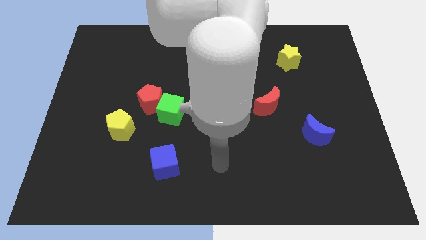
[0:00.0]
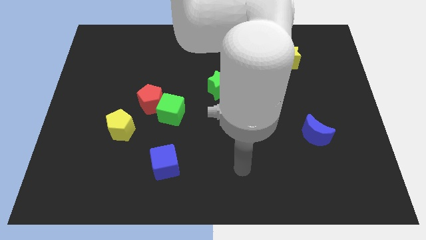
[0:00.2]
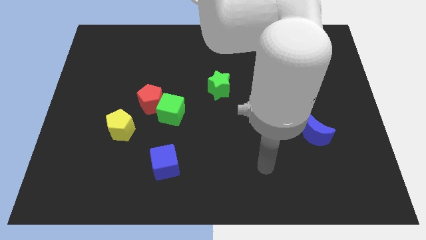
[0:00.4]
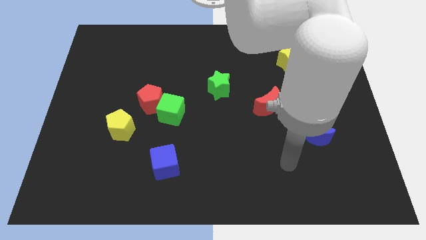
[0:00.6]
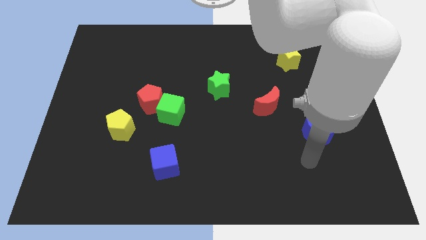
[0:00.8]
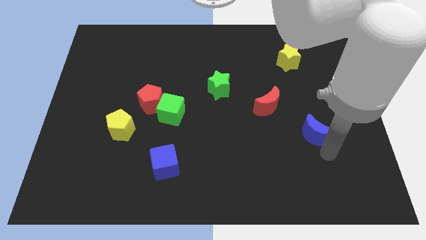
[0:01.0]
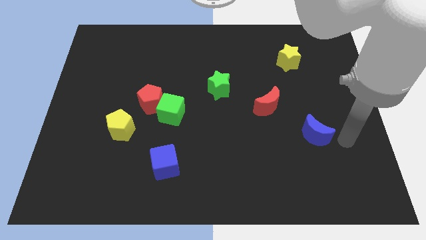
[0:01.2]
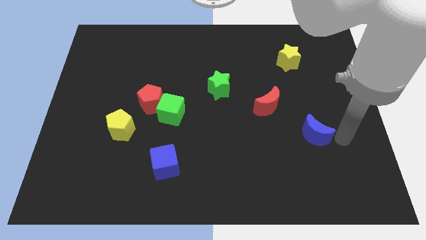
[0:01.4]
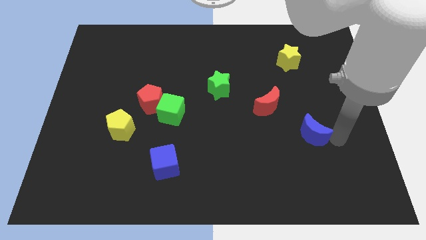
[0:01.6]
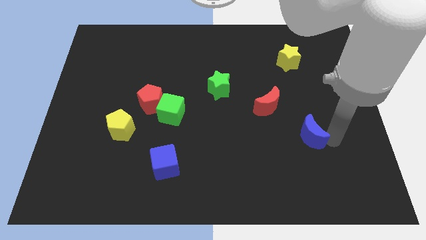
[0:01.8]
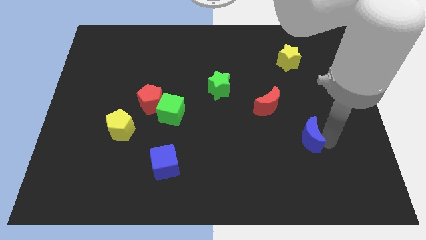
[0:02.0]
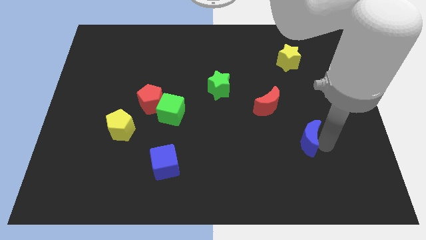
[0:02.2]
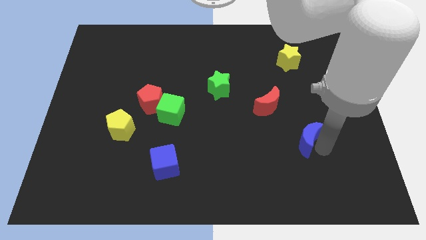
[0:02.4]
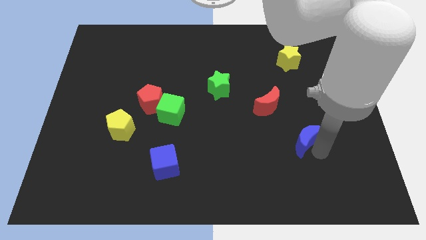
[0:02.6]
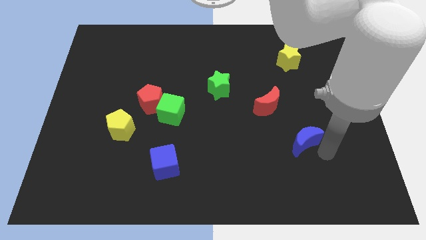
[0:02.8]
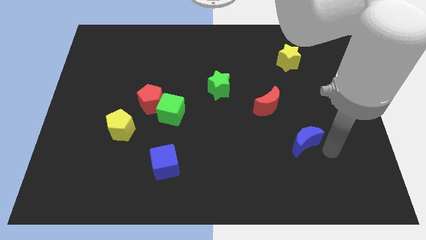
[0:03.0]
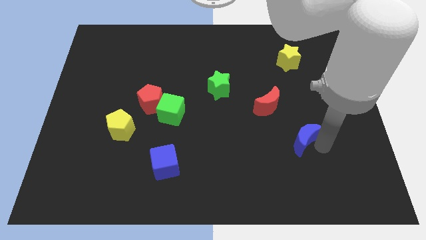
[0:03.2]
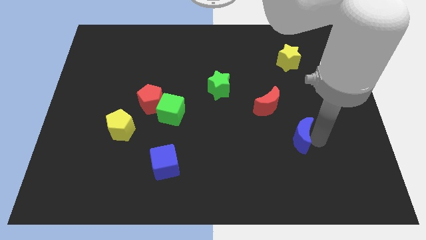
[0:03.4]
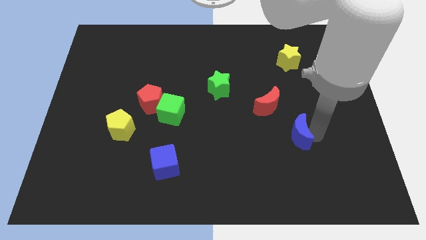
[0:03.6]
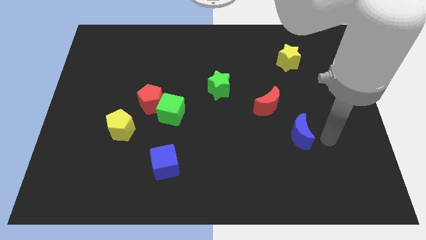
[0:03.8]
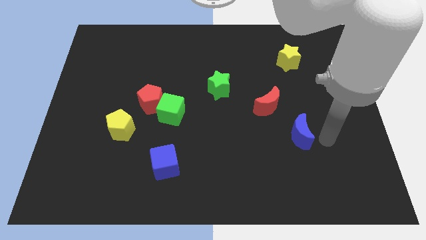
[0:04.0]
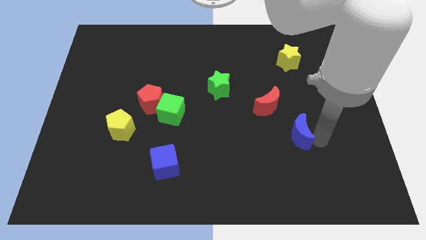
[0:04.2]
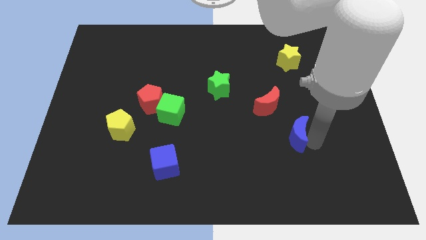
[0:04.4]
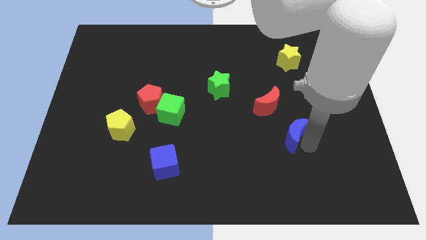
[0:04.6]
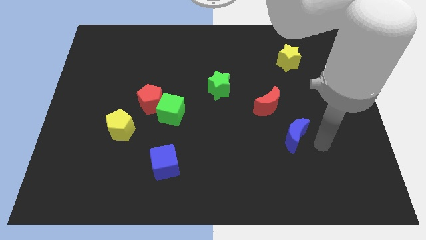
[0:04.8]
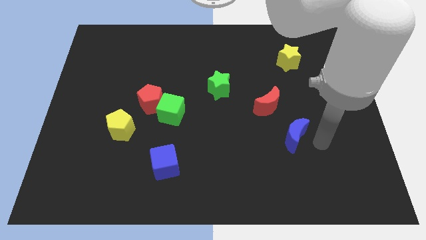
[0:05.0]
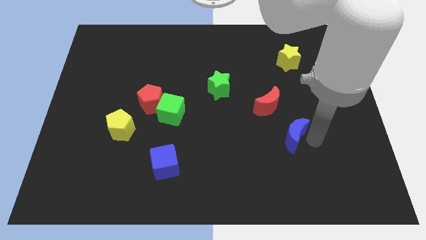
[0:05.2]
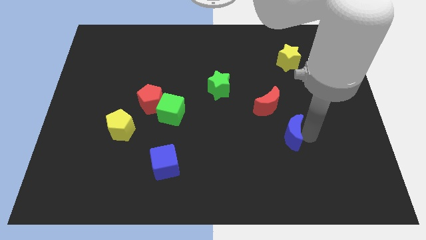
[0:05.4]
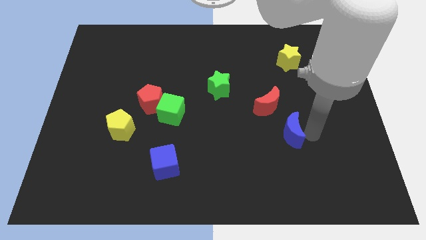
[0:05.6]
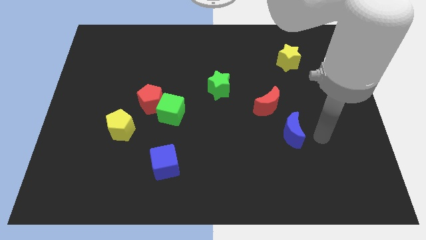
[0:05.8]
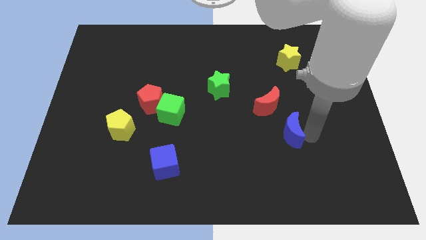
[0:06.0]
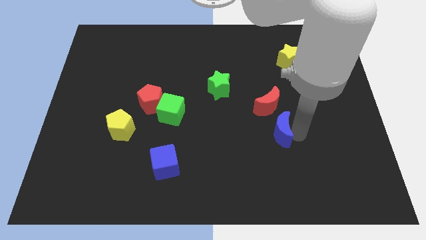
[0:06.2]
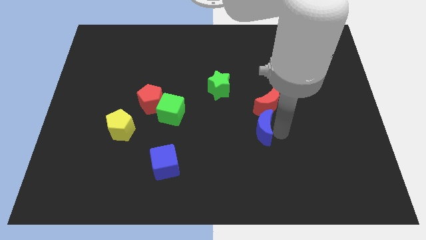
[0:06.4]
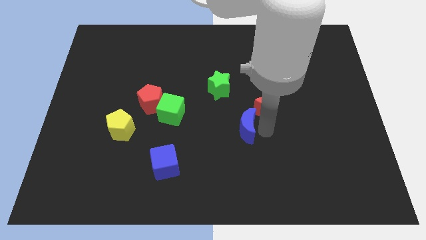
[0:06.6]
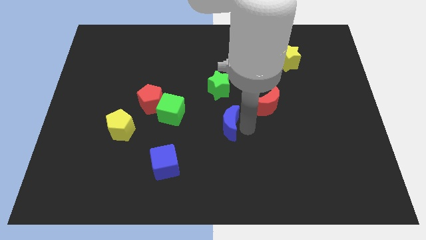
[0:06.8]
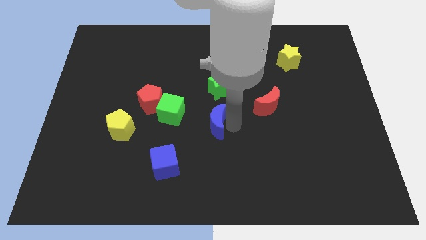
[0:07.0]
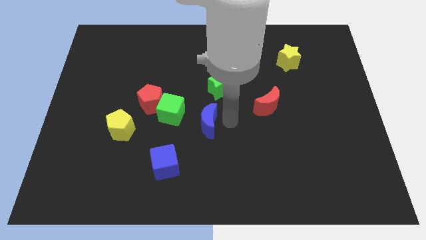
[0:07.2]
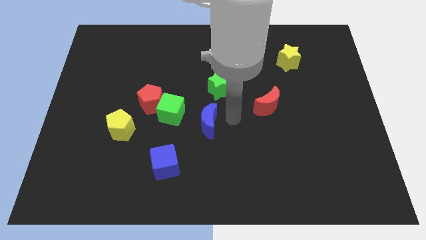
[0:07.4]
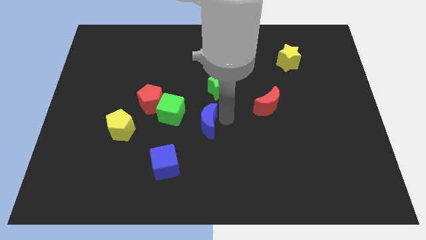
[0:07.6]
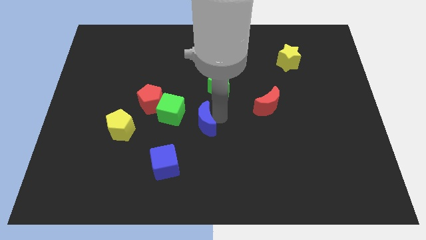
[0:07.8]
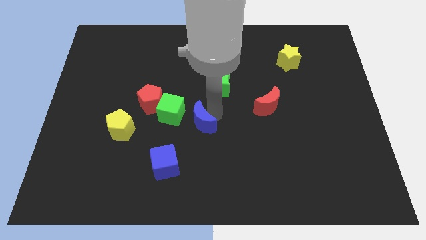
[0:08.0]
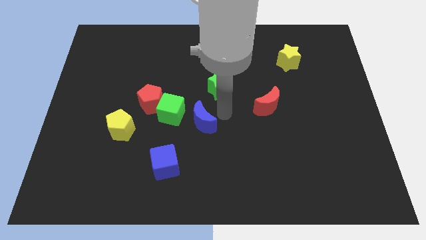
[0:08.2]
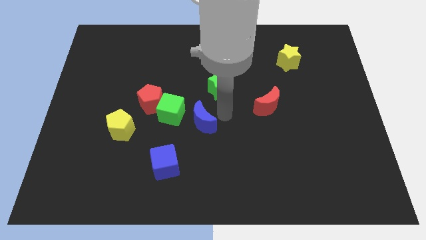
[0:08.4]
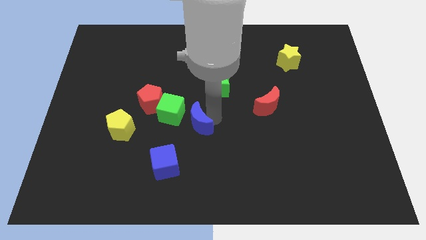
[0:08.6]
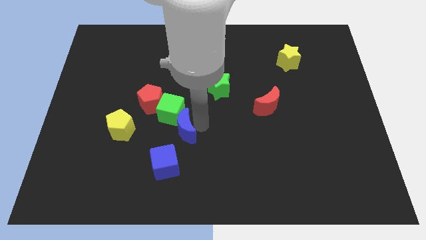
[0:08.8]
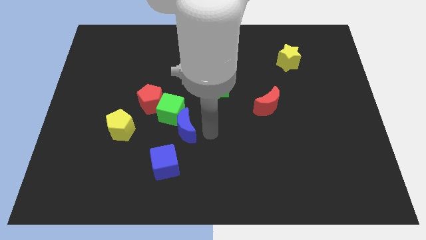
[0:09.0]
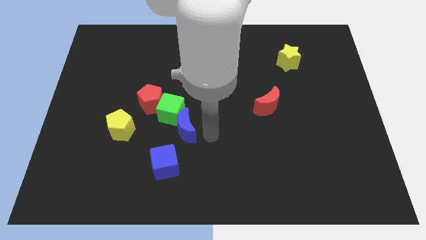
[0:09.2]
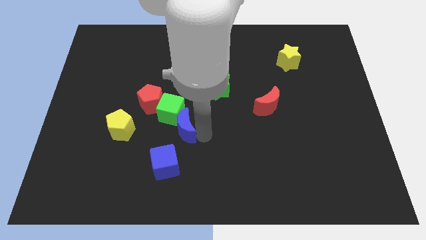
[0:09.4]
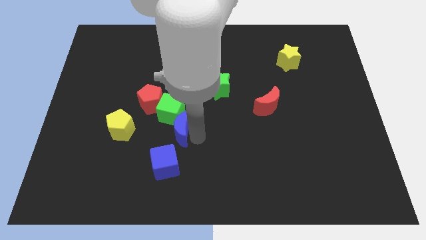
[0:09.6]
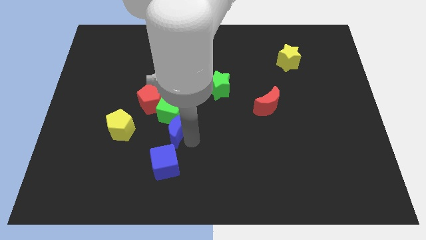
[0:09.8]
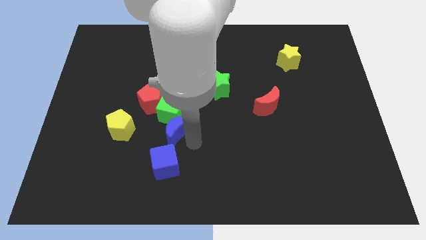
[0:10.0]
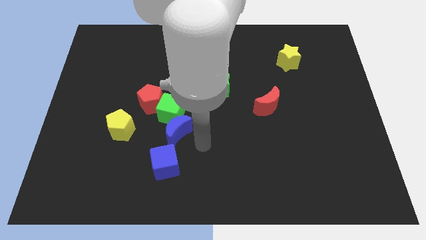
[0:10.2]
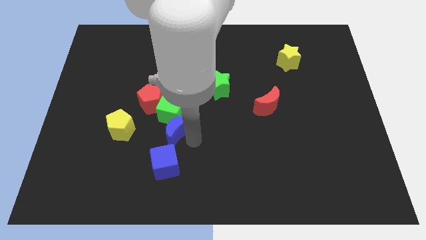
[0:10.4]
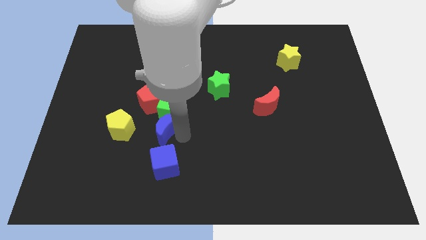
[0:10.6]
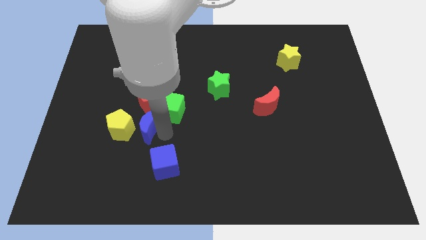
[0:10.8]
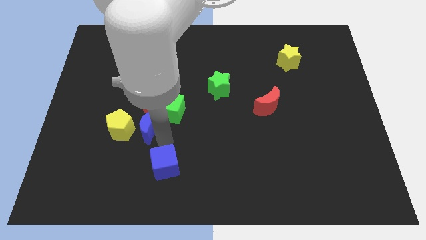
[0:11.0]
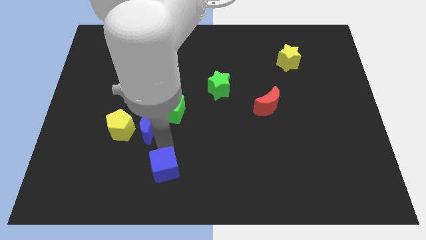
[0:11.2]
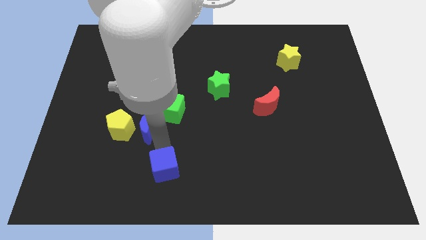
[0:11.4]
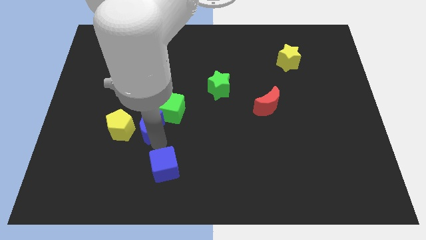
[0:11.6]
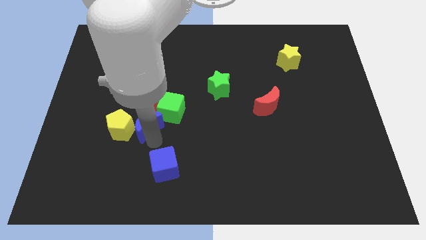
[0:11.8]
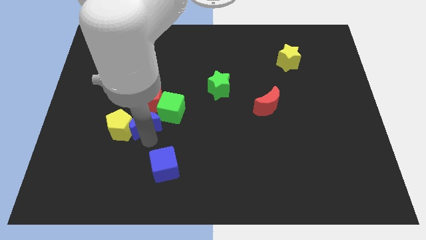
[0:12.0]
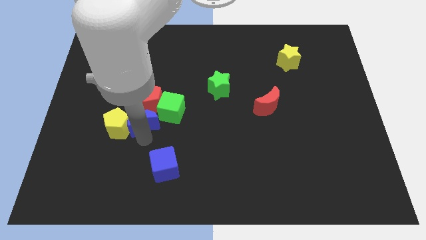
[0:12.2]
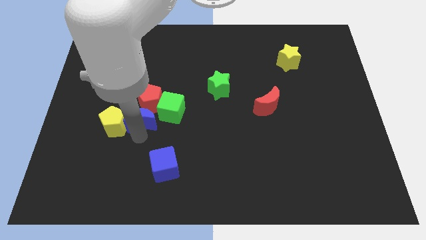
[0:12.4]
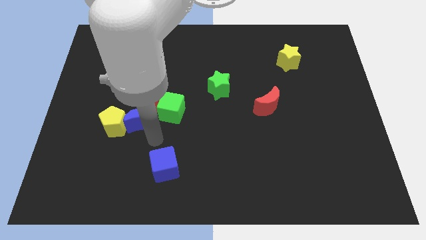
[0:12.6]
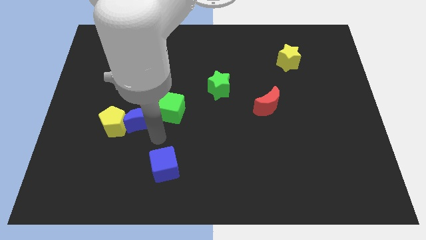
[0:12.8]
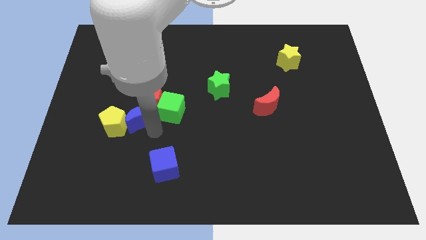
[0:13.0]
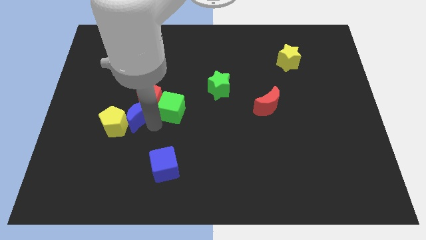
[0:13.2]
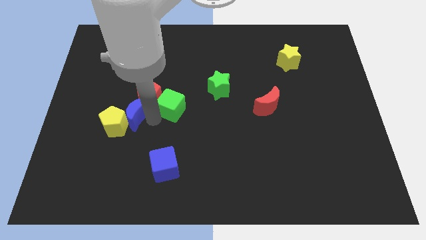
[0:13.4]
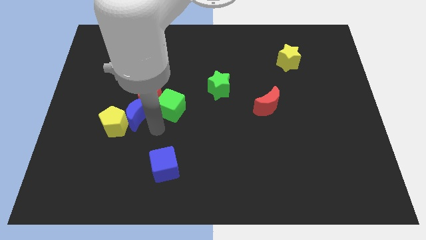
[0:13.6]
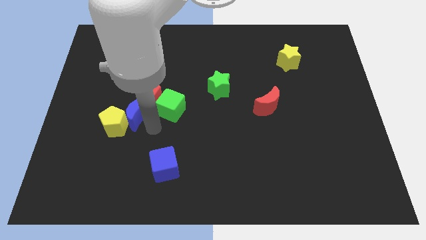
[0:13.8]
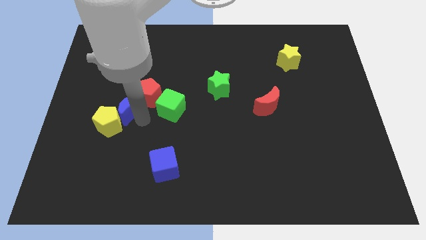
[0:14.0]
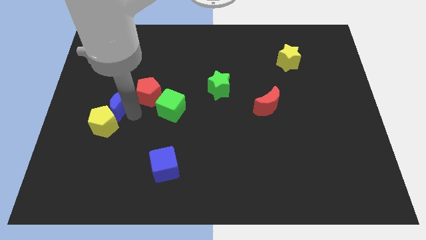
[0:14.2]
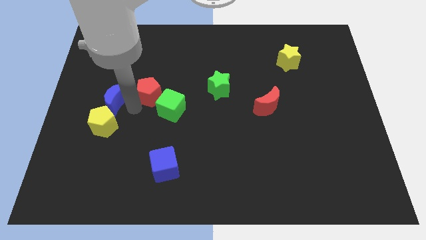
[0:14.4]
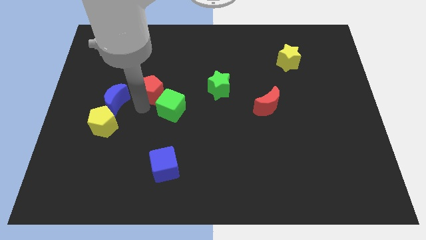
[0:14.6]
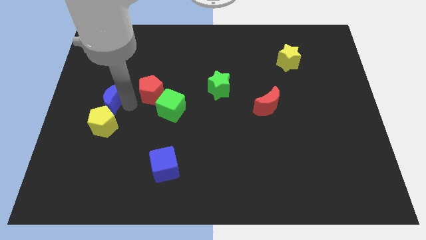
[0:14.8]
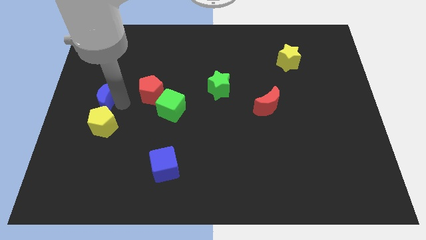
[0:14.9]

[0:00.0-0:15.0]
move the blue moon to the left side
